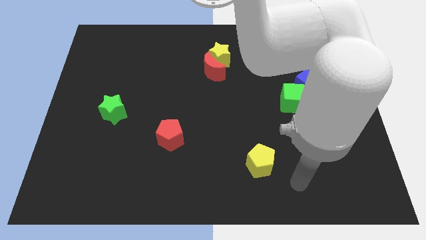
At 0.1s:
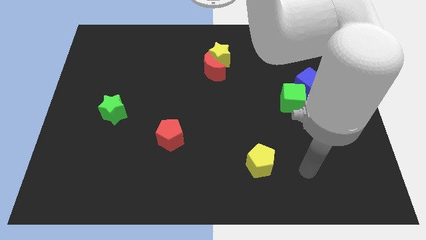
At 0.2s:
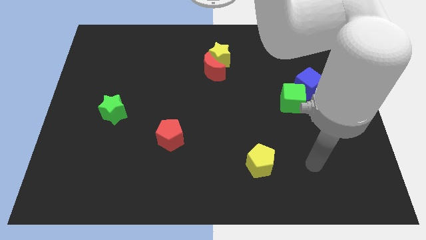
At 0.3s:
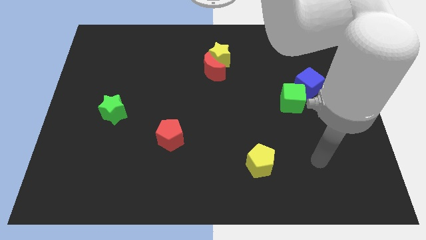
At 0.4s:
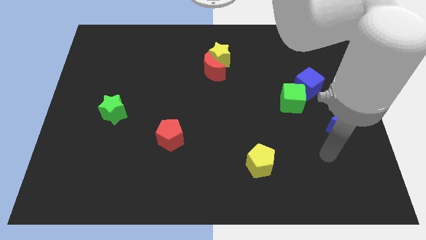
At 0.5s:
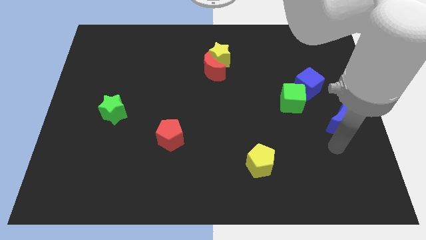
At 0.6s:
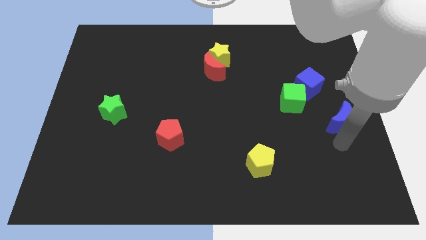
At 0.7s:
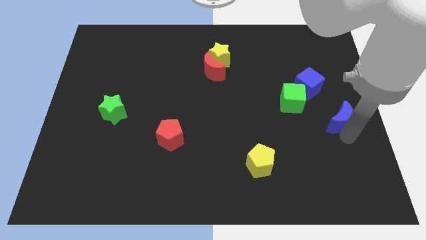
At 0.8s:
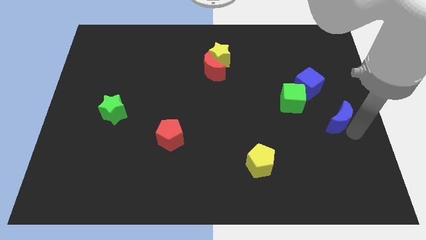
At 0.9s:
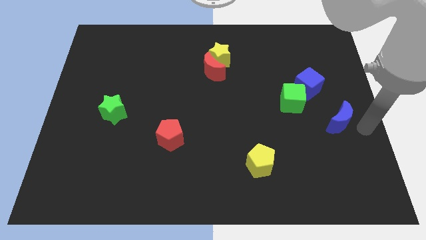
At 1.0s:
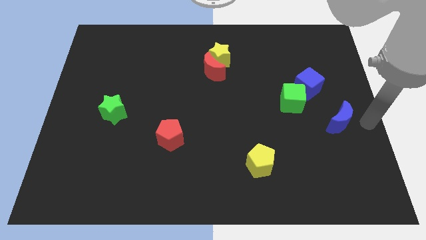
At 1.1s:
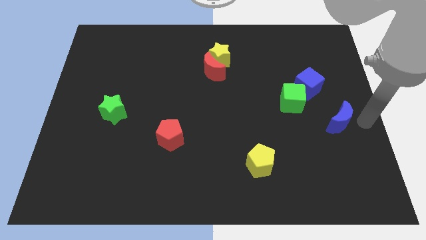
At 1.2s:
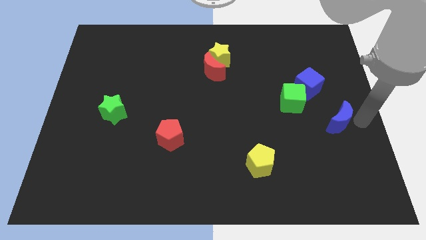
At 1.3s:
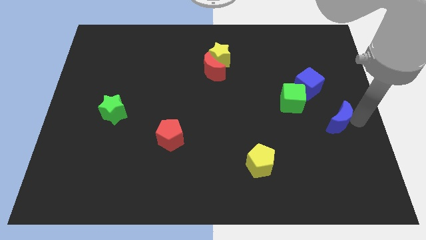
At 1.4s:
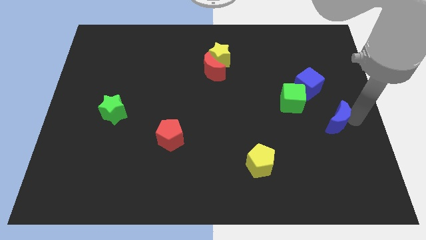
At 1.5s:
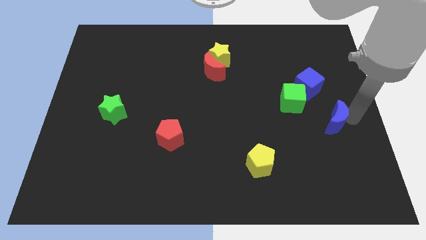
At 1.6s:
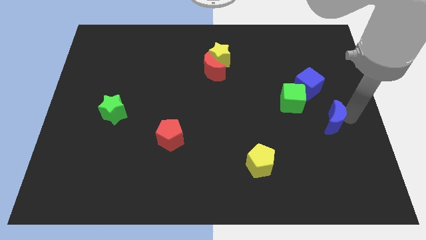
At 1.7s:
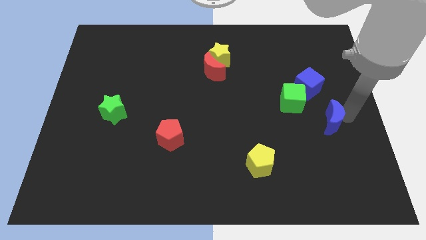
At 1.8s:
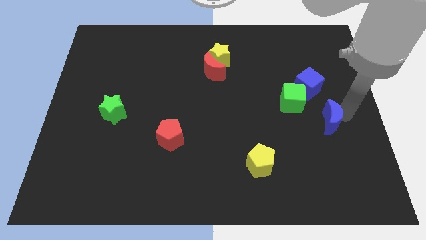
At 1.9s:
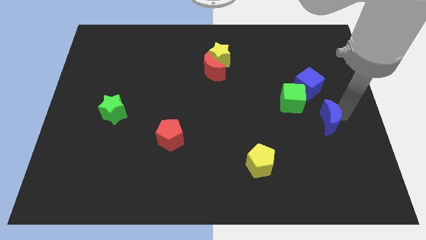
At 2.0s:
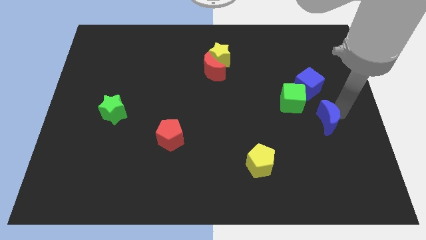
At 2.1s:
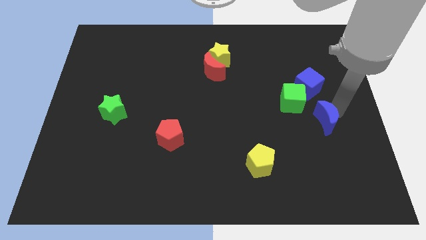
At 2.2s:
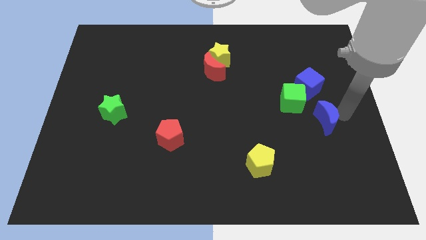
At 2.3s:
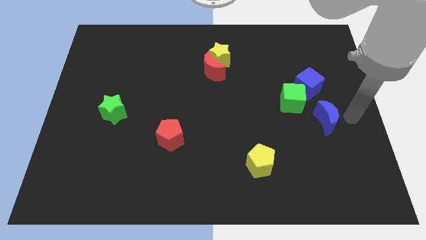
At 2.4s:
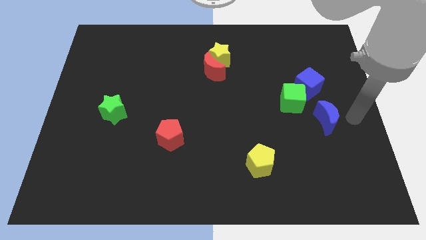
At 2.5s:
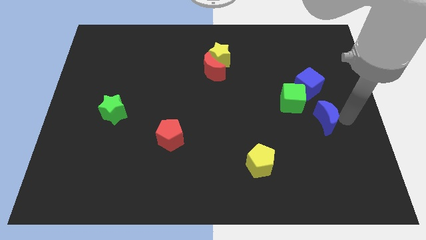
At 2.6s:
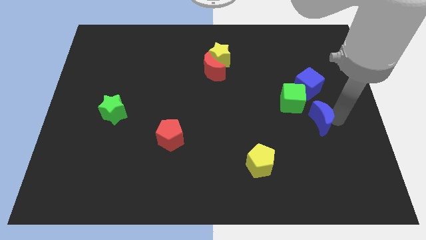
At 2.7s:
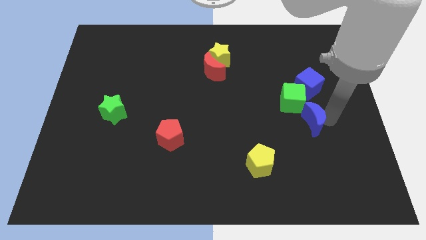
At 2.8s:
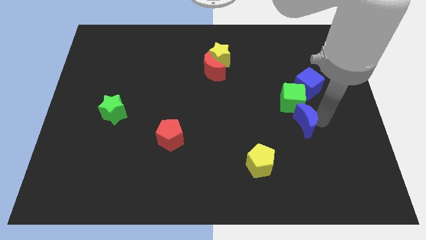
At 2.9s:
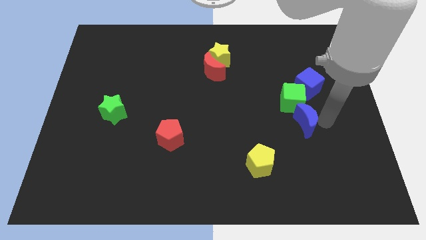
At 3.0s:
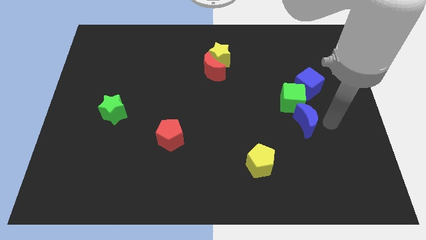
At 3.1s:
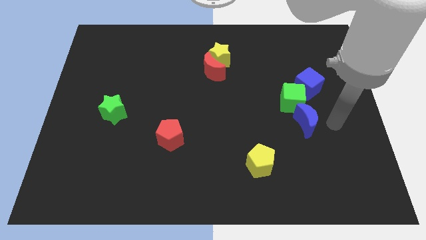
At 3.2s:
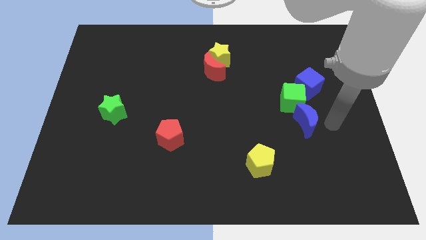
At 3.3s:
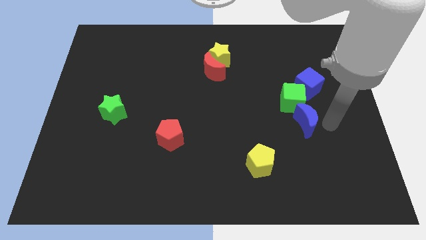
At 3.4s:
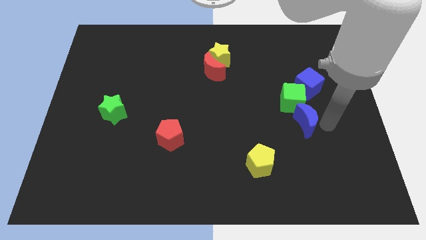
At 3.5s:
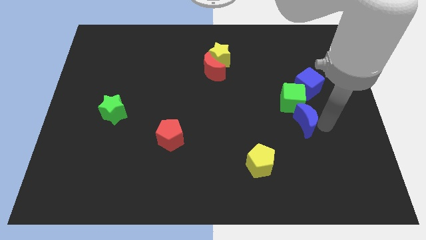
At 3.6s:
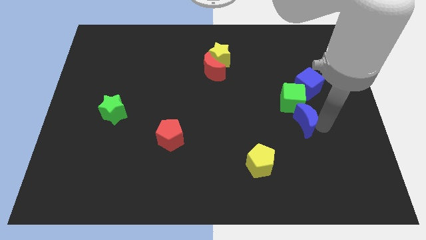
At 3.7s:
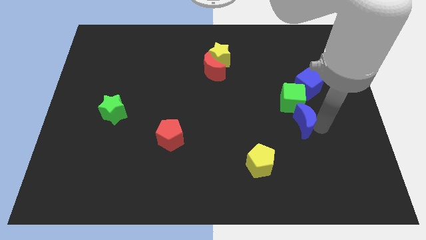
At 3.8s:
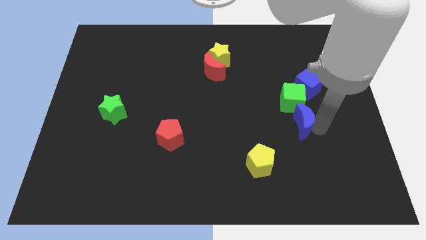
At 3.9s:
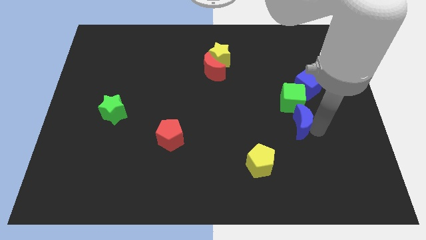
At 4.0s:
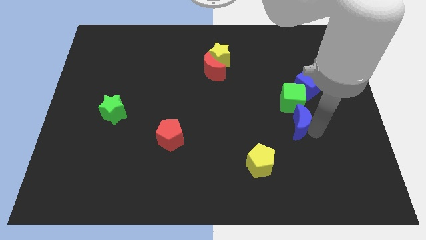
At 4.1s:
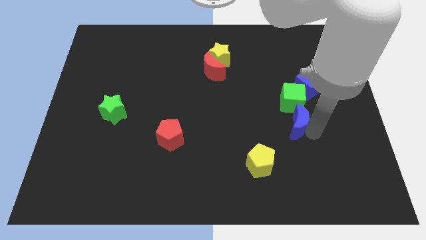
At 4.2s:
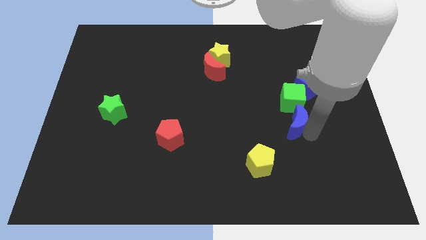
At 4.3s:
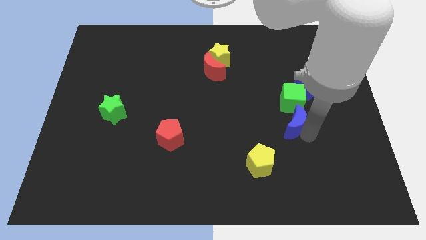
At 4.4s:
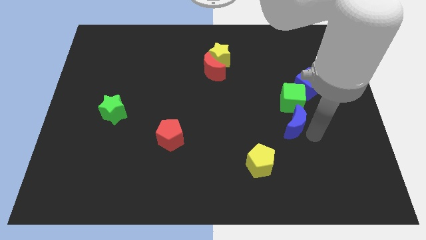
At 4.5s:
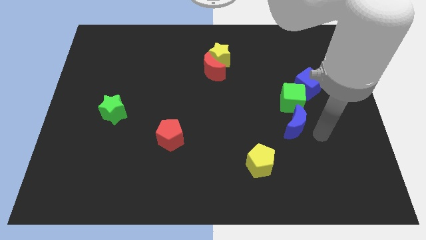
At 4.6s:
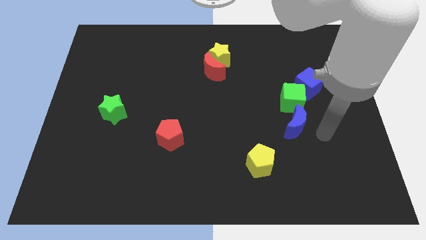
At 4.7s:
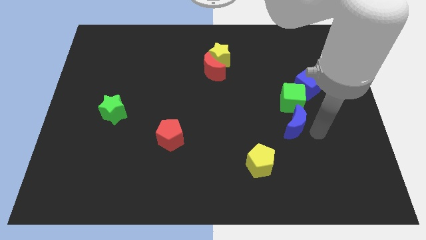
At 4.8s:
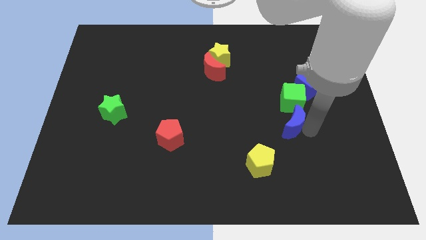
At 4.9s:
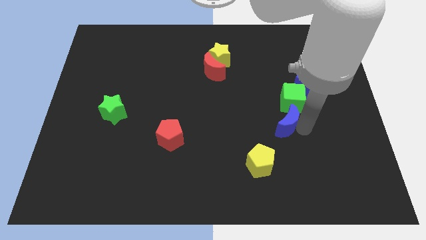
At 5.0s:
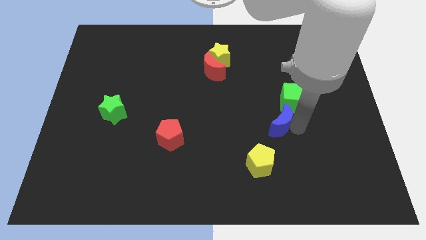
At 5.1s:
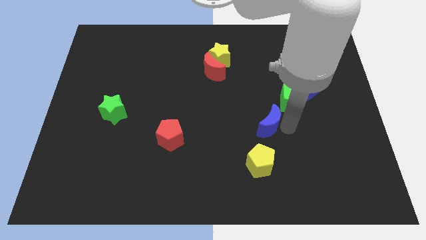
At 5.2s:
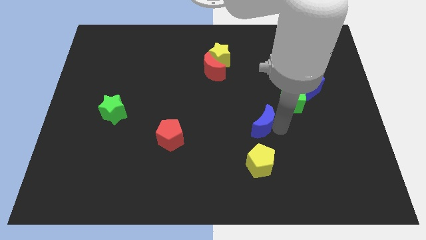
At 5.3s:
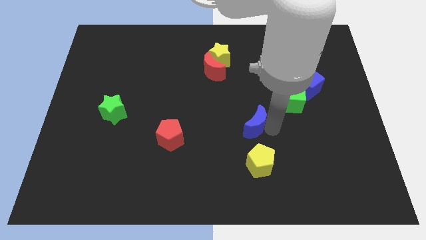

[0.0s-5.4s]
push the blue moon to the center

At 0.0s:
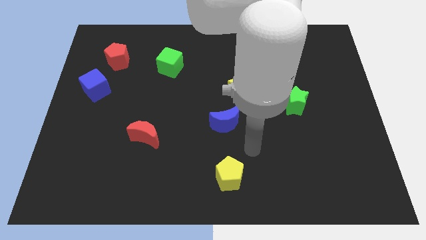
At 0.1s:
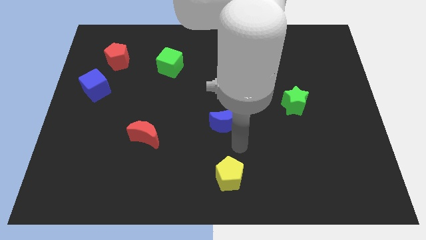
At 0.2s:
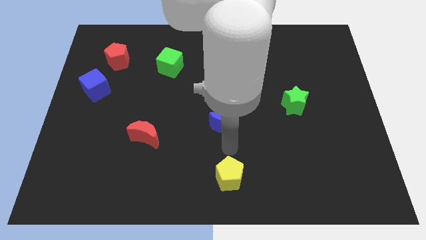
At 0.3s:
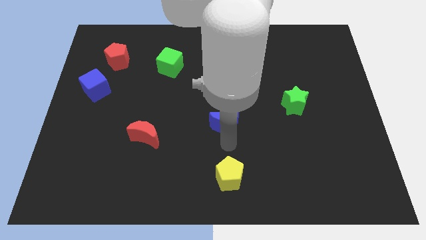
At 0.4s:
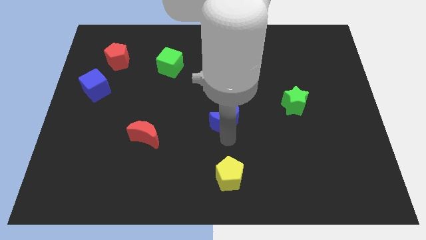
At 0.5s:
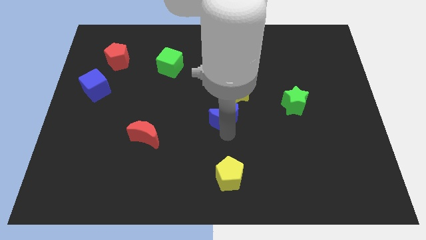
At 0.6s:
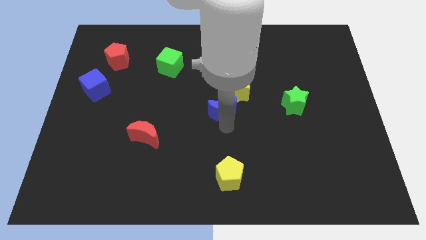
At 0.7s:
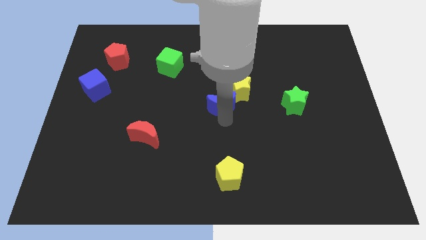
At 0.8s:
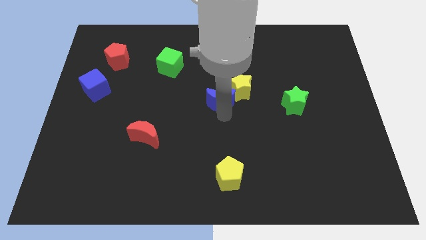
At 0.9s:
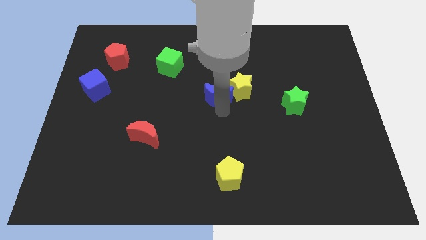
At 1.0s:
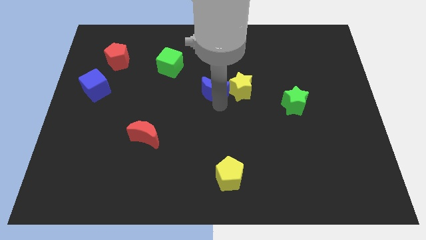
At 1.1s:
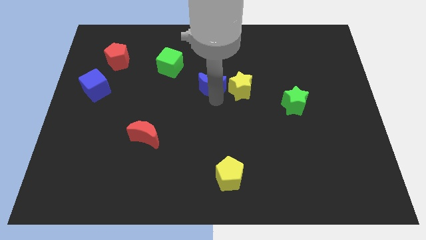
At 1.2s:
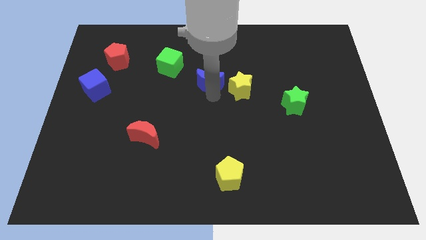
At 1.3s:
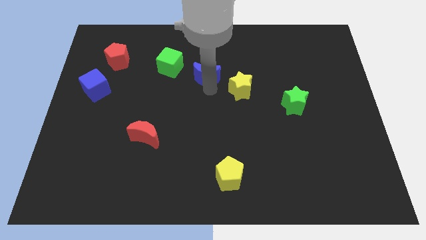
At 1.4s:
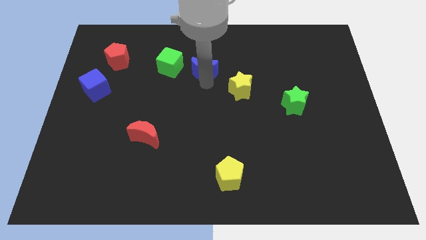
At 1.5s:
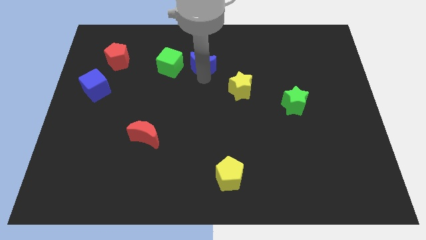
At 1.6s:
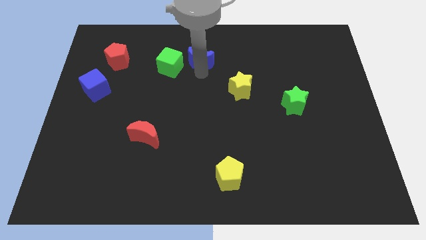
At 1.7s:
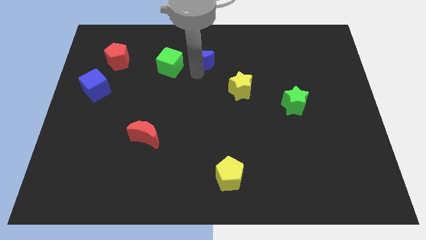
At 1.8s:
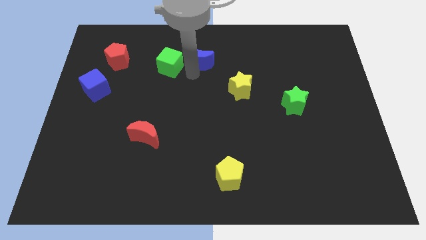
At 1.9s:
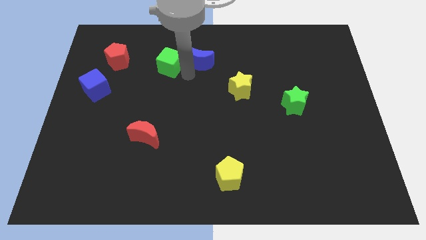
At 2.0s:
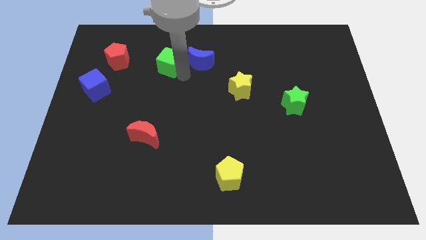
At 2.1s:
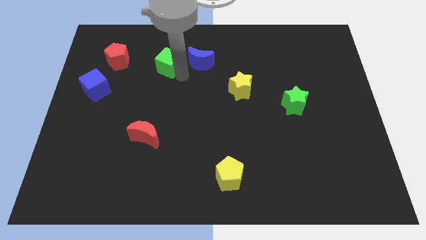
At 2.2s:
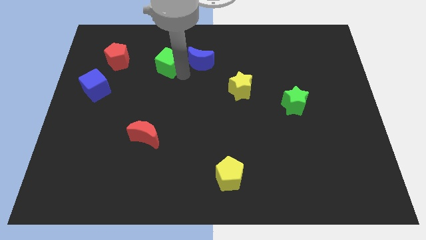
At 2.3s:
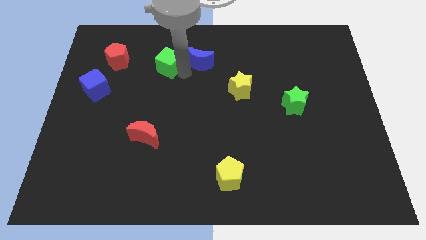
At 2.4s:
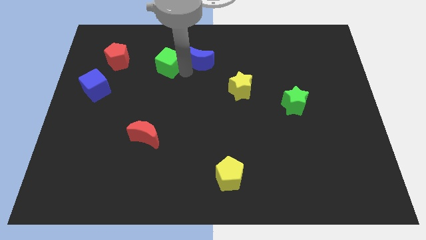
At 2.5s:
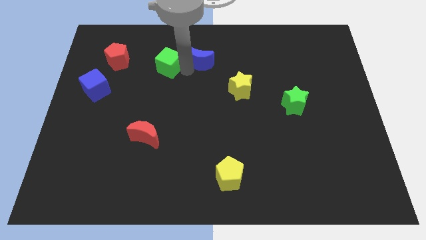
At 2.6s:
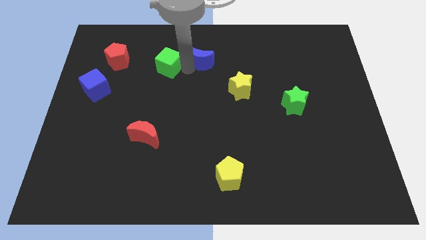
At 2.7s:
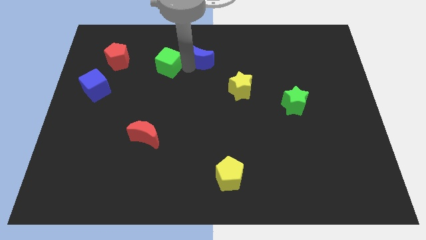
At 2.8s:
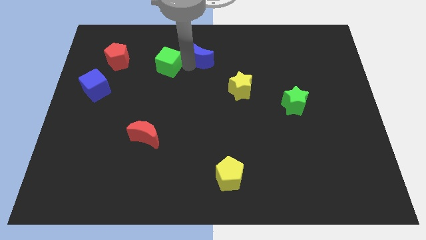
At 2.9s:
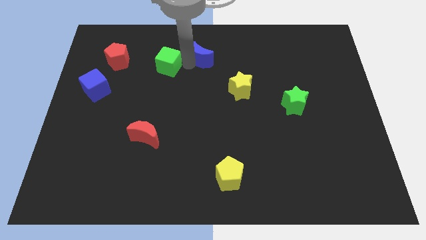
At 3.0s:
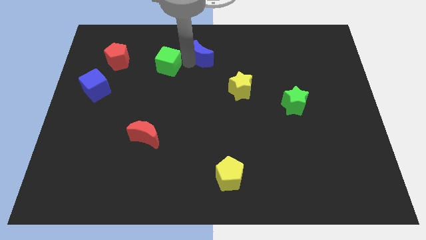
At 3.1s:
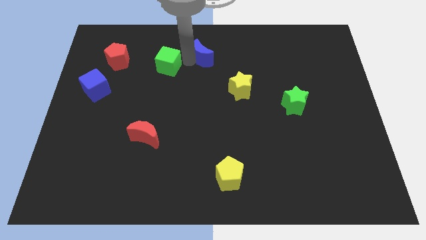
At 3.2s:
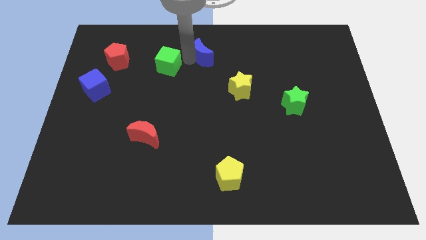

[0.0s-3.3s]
slide the blue moon to the top side

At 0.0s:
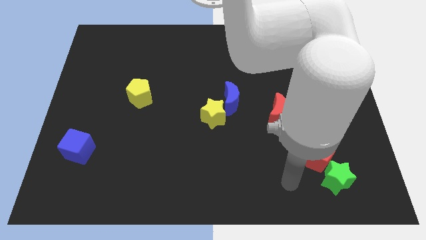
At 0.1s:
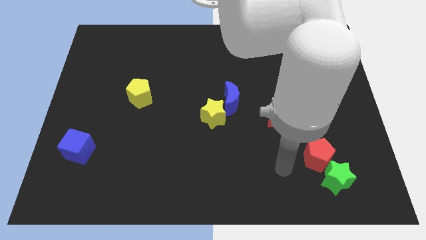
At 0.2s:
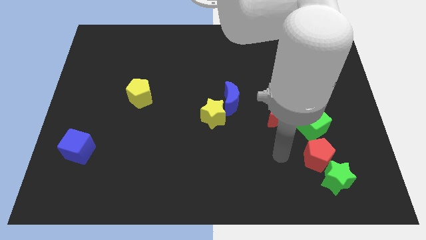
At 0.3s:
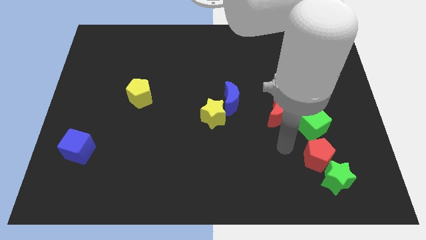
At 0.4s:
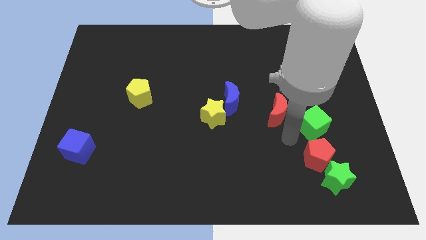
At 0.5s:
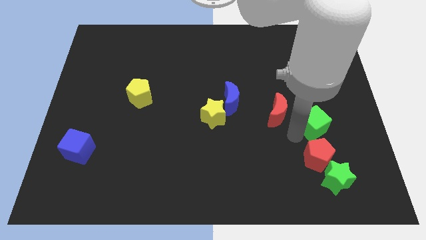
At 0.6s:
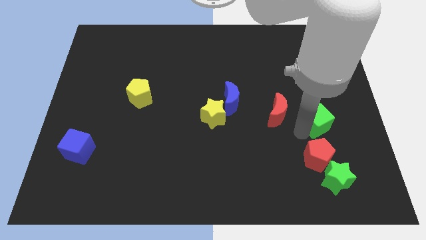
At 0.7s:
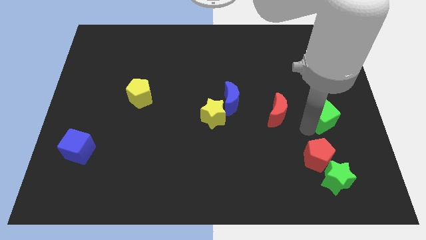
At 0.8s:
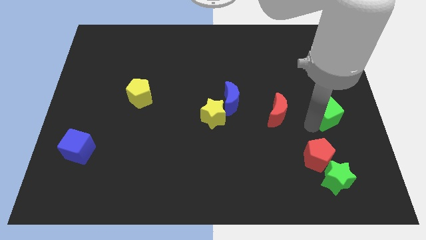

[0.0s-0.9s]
put the green cube to the right side
